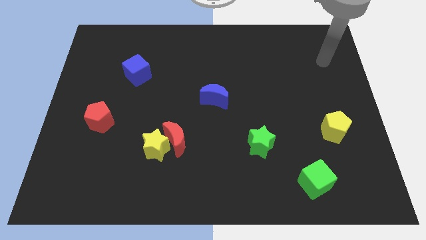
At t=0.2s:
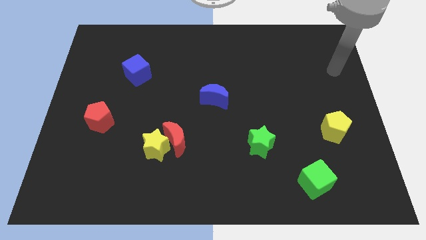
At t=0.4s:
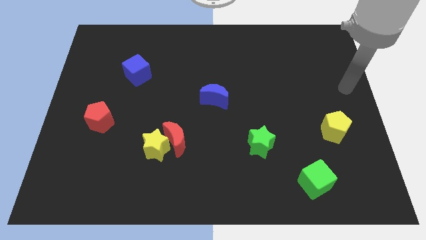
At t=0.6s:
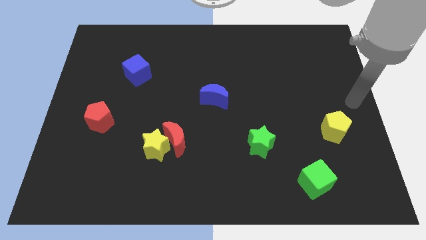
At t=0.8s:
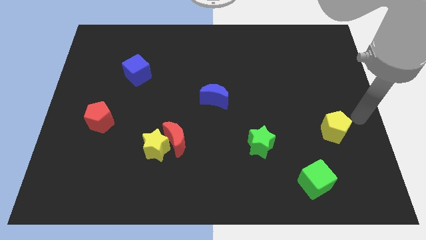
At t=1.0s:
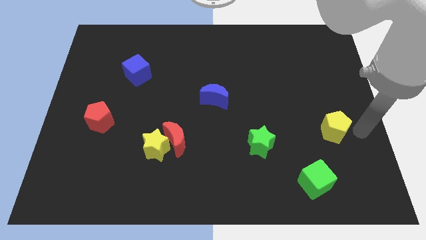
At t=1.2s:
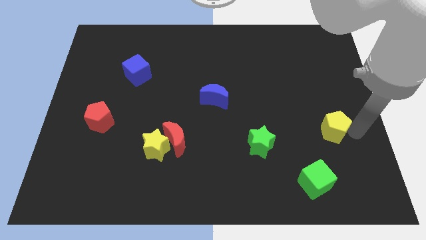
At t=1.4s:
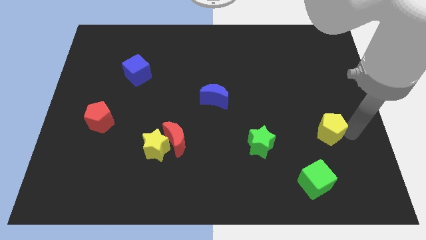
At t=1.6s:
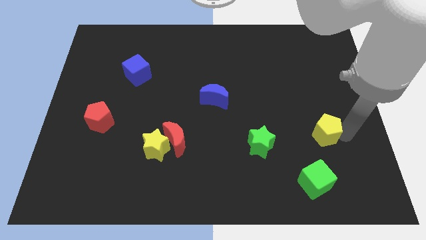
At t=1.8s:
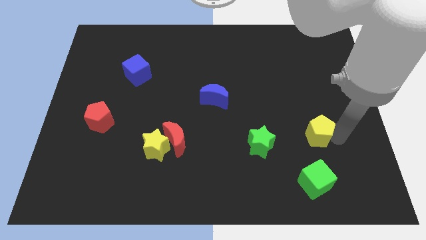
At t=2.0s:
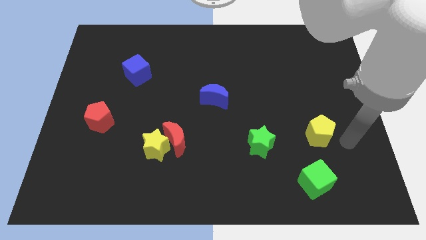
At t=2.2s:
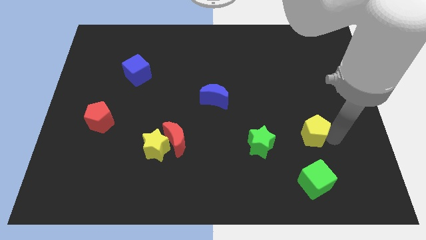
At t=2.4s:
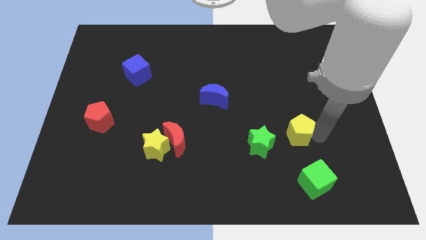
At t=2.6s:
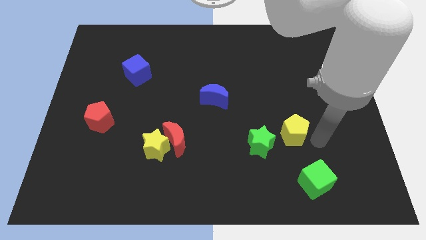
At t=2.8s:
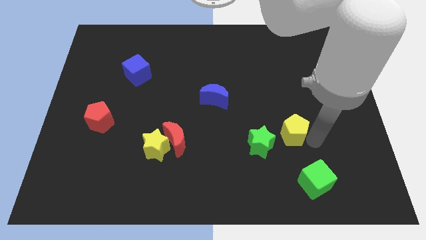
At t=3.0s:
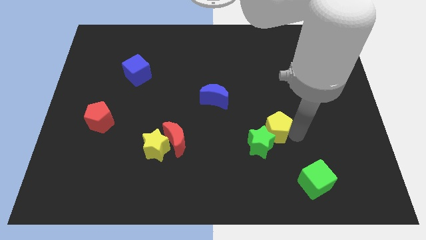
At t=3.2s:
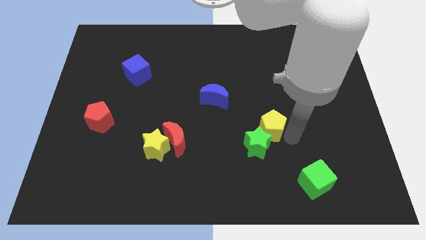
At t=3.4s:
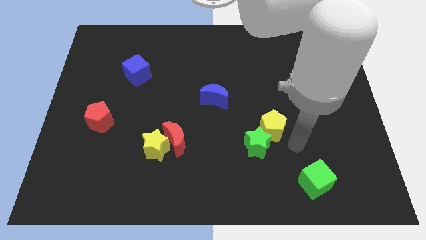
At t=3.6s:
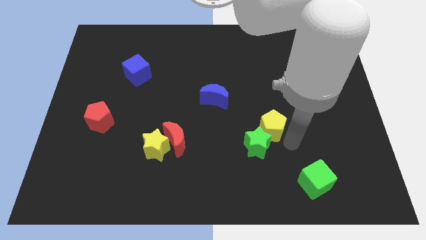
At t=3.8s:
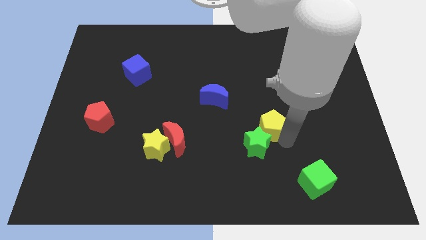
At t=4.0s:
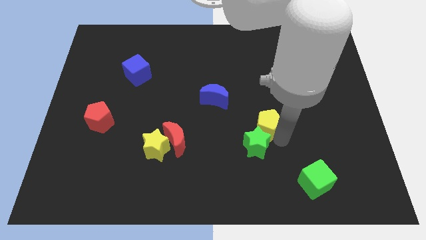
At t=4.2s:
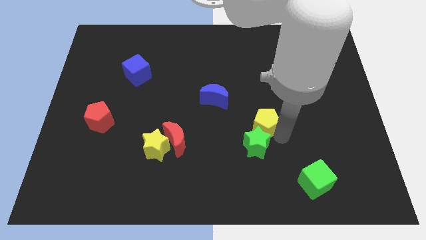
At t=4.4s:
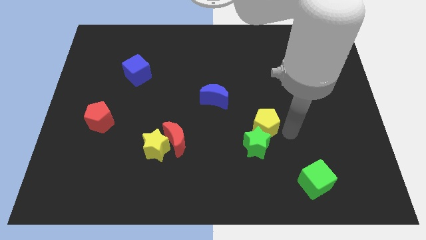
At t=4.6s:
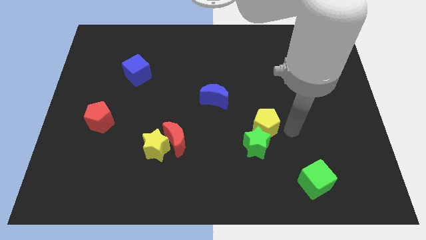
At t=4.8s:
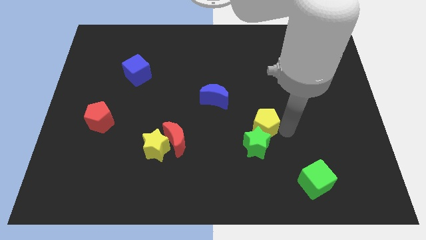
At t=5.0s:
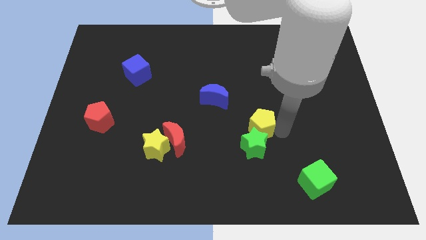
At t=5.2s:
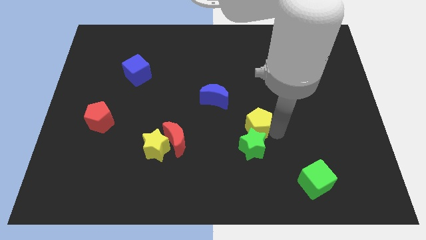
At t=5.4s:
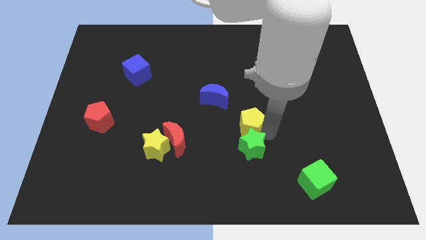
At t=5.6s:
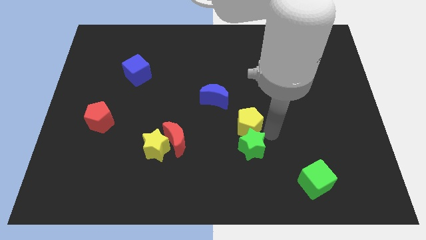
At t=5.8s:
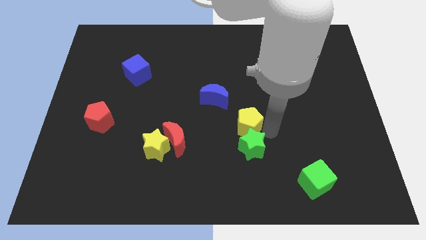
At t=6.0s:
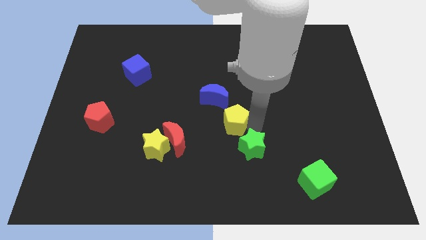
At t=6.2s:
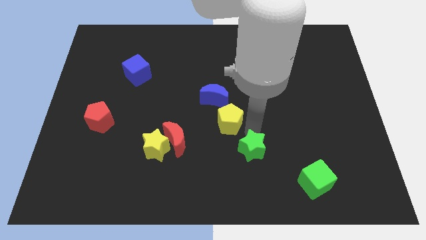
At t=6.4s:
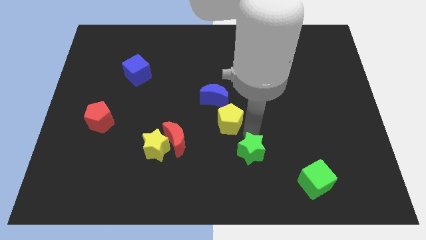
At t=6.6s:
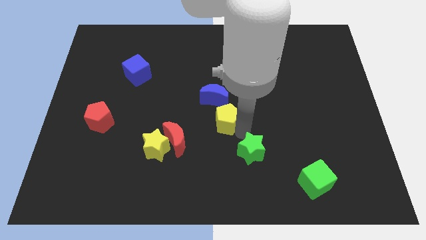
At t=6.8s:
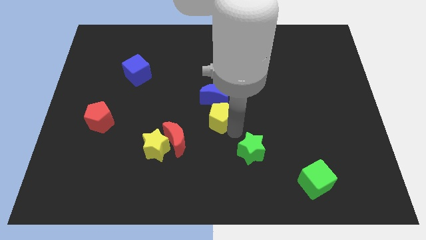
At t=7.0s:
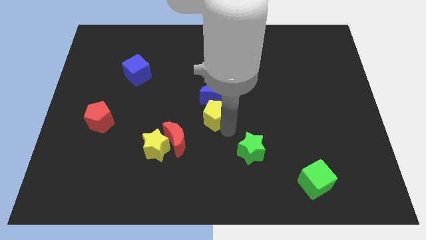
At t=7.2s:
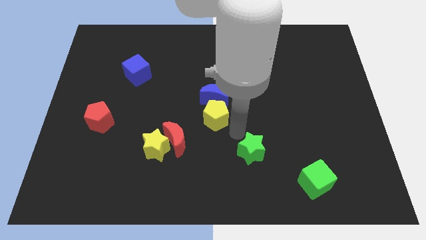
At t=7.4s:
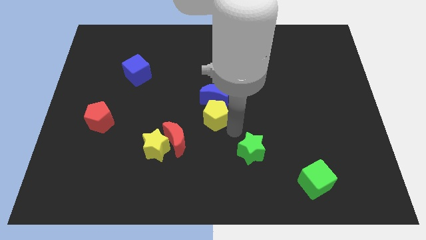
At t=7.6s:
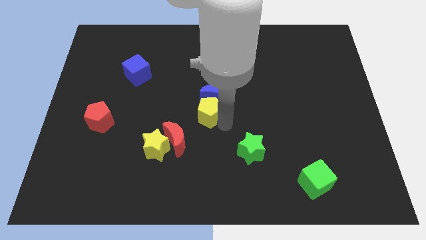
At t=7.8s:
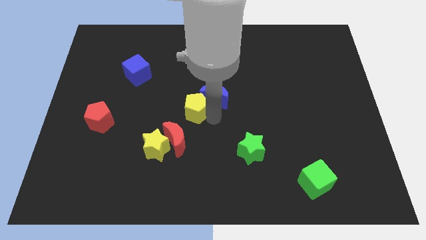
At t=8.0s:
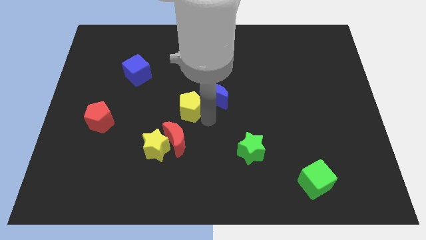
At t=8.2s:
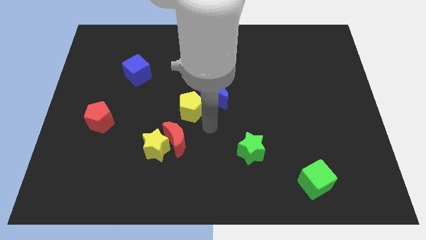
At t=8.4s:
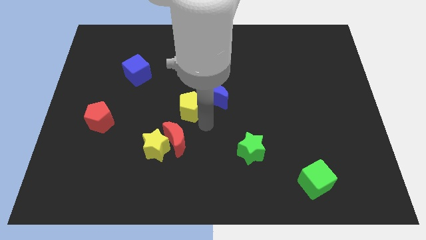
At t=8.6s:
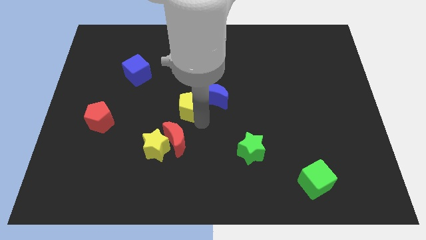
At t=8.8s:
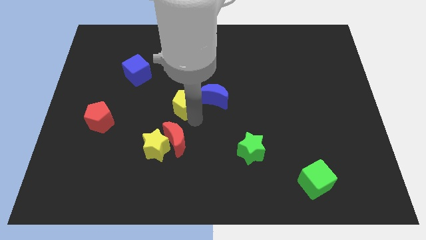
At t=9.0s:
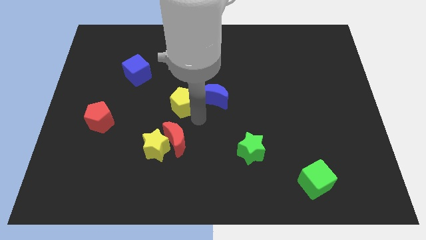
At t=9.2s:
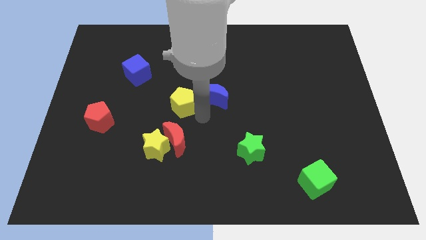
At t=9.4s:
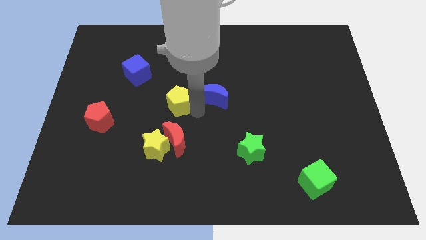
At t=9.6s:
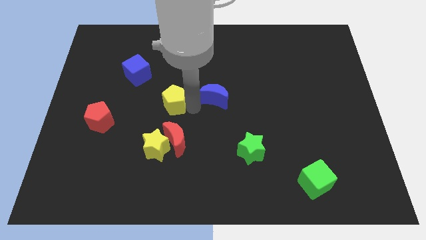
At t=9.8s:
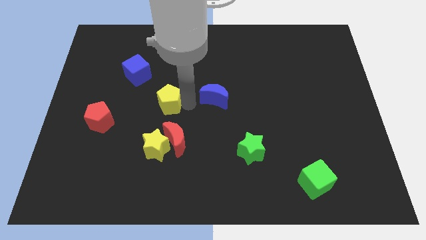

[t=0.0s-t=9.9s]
push the yellow pentagon to the bottom right side of the blue cube

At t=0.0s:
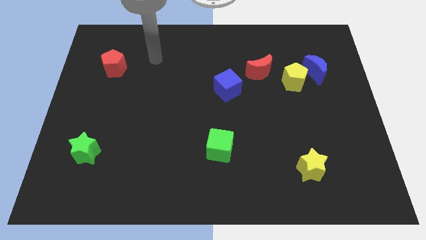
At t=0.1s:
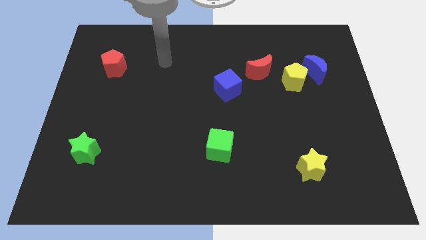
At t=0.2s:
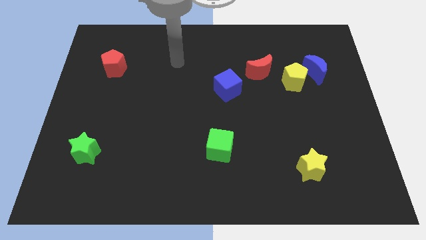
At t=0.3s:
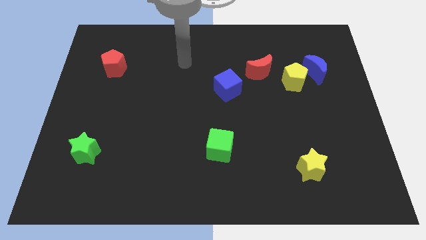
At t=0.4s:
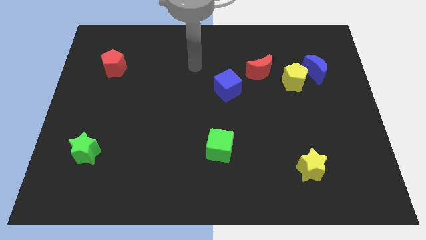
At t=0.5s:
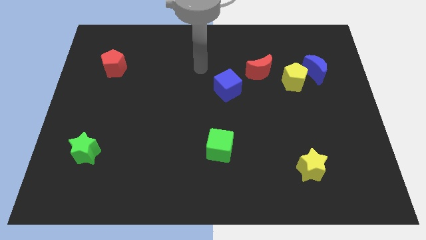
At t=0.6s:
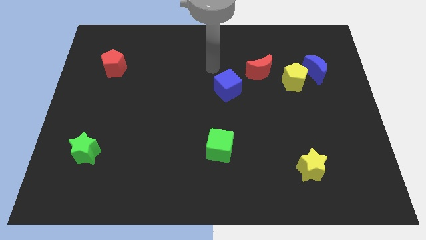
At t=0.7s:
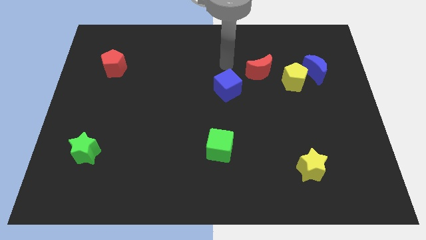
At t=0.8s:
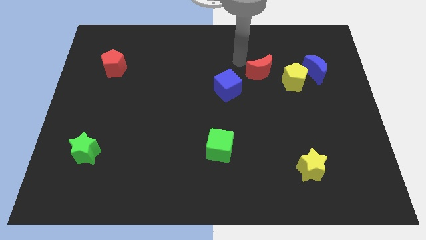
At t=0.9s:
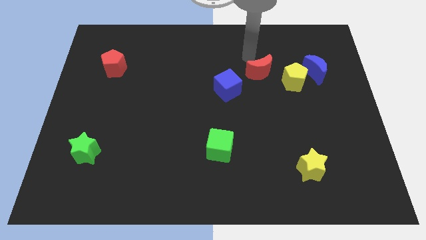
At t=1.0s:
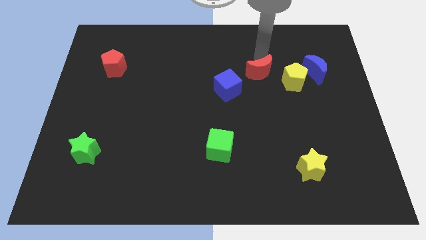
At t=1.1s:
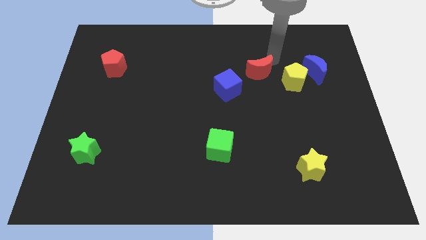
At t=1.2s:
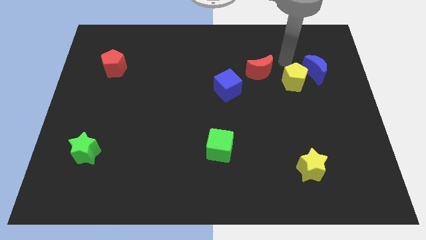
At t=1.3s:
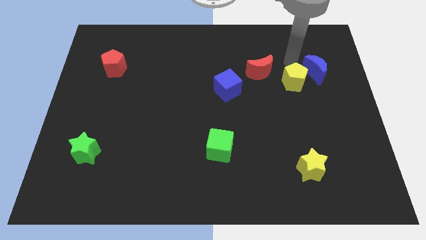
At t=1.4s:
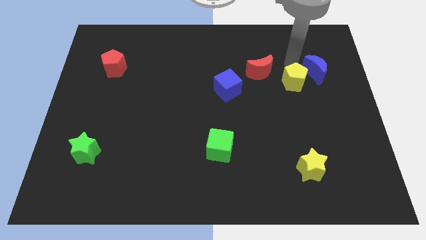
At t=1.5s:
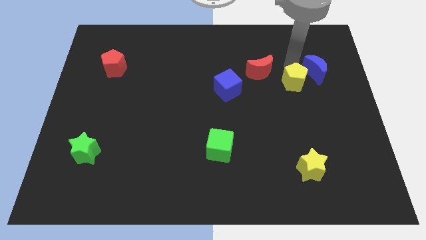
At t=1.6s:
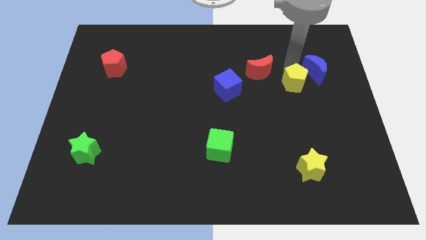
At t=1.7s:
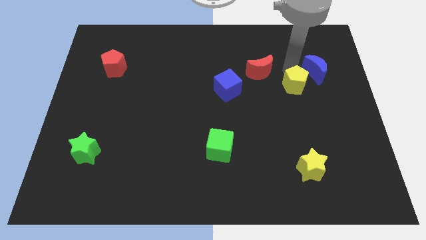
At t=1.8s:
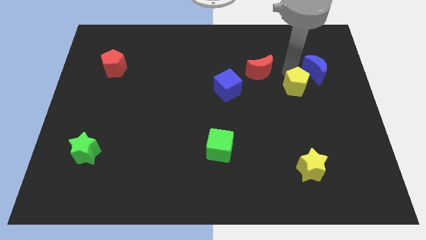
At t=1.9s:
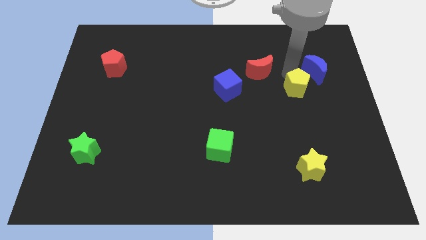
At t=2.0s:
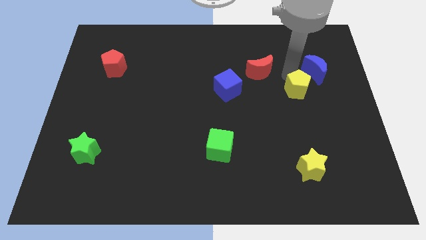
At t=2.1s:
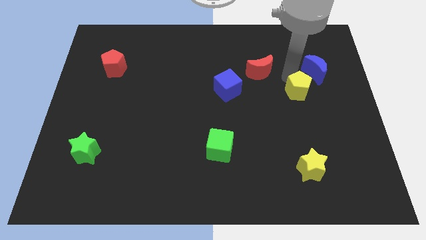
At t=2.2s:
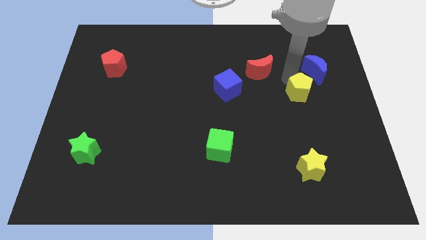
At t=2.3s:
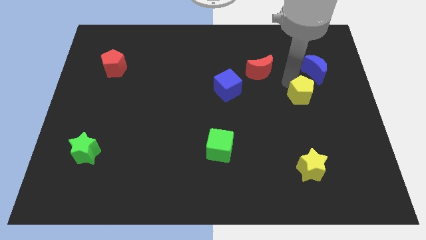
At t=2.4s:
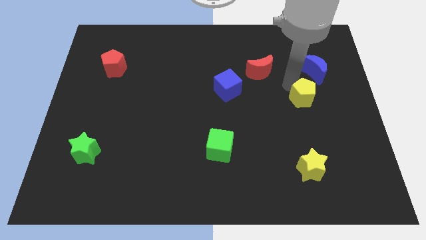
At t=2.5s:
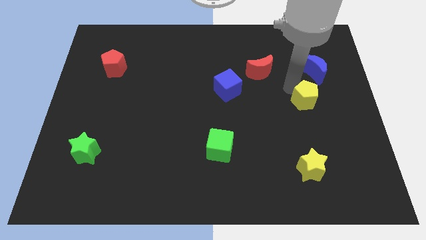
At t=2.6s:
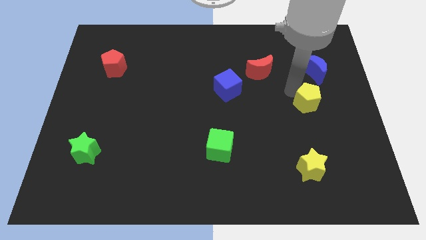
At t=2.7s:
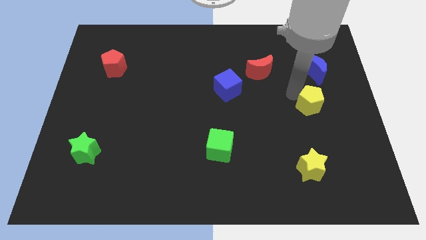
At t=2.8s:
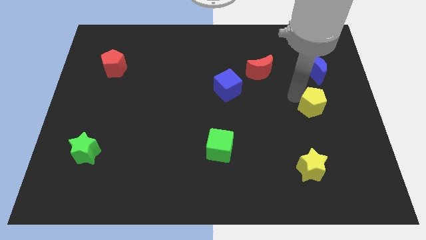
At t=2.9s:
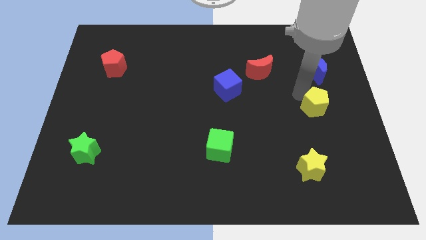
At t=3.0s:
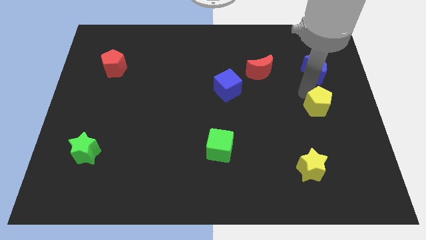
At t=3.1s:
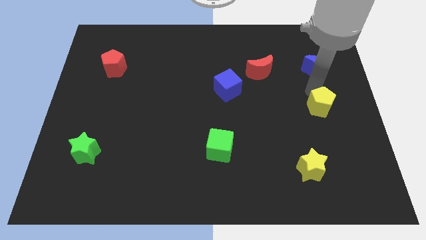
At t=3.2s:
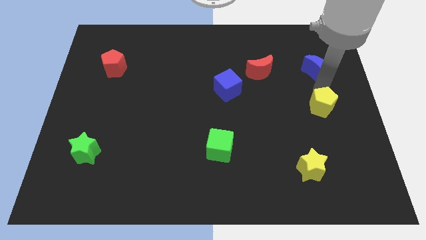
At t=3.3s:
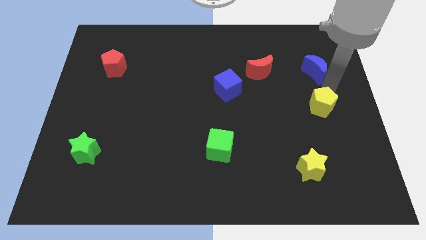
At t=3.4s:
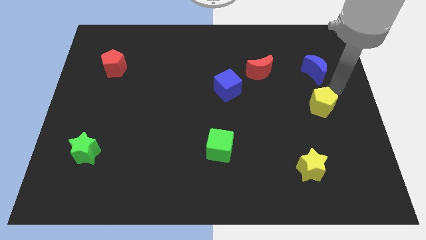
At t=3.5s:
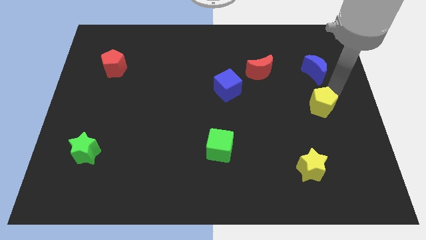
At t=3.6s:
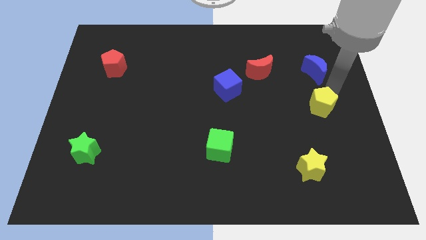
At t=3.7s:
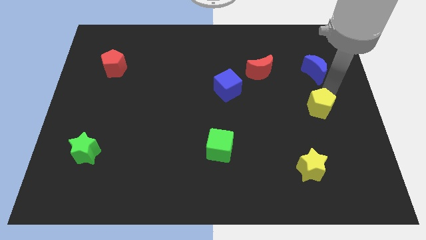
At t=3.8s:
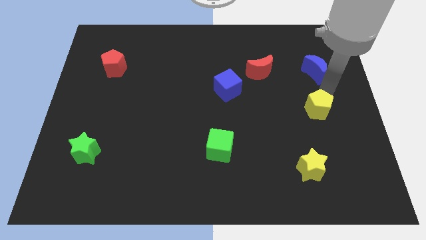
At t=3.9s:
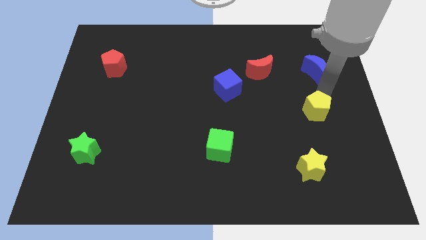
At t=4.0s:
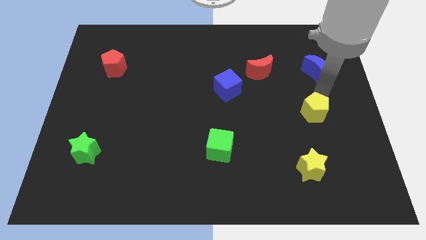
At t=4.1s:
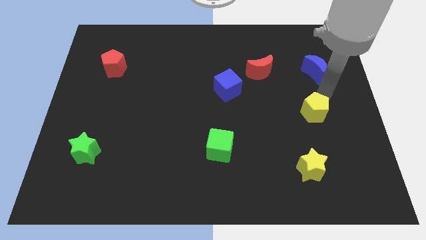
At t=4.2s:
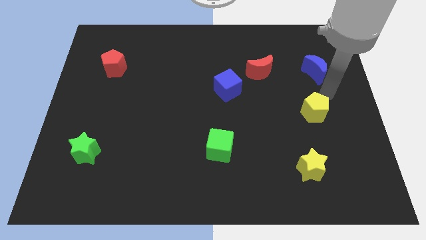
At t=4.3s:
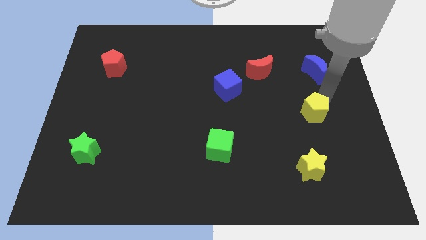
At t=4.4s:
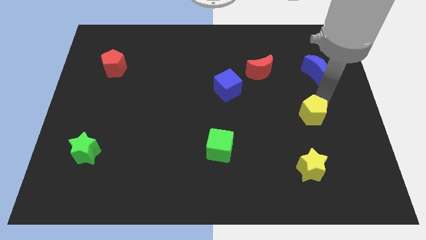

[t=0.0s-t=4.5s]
push the yellow pentagon above the yellow star
